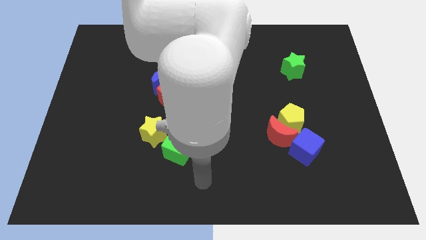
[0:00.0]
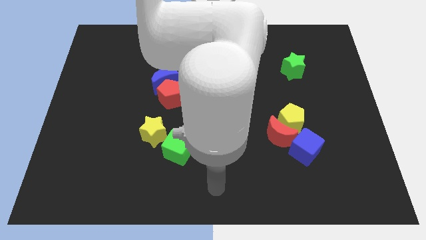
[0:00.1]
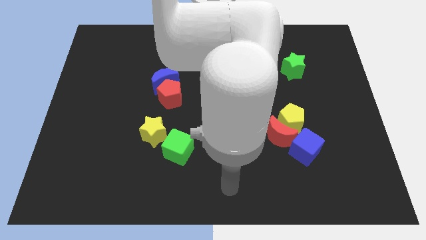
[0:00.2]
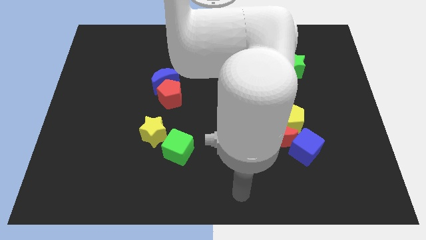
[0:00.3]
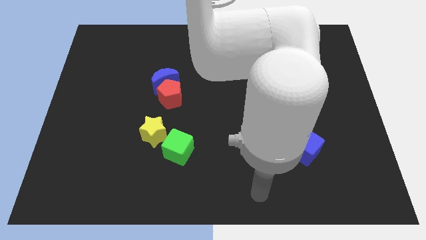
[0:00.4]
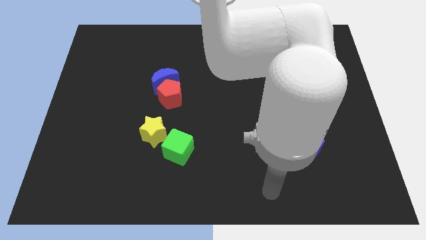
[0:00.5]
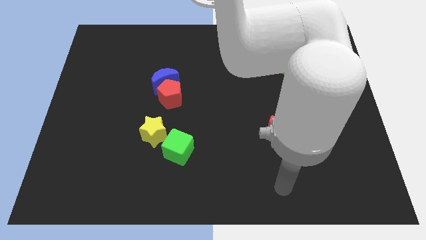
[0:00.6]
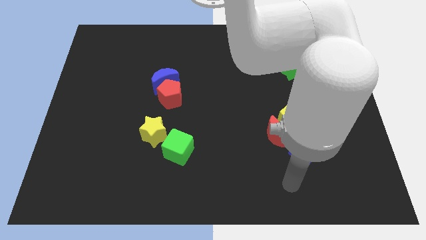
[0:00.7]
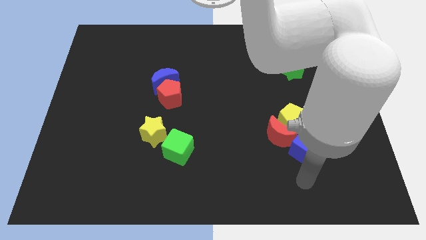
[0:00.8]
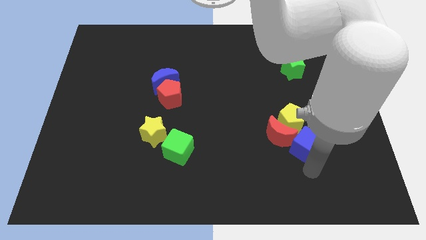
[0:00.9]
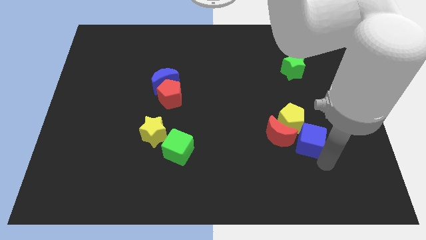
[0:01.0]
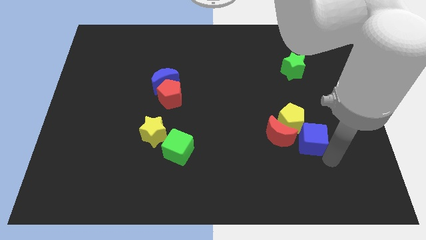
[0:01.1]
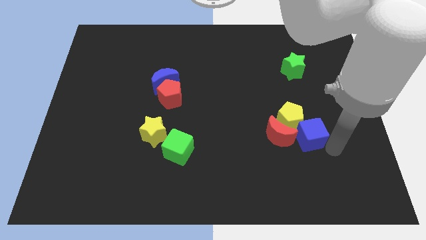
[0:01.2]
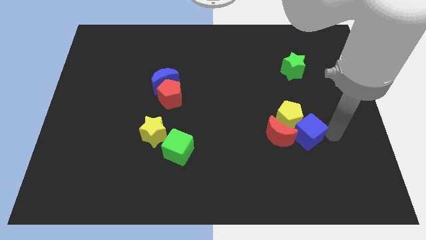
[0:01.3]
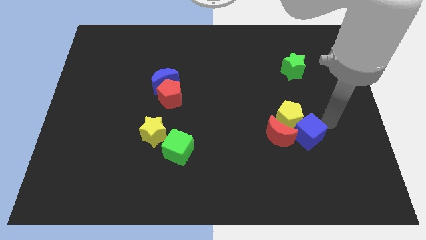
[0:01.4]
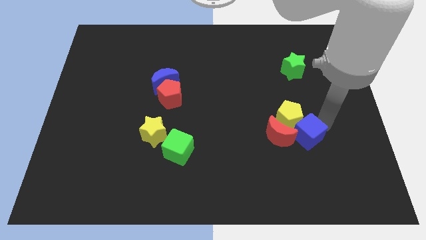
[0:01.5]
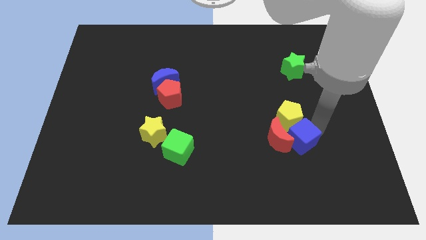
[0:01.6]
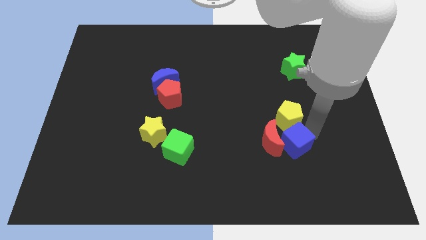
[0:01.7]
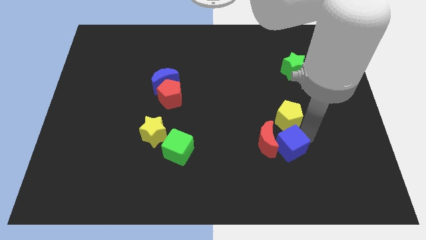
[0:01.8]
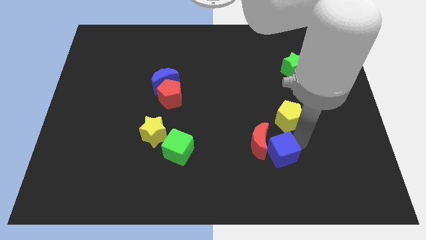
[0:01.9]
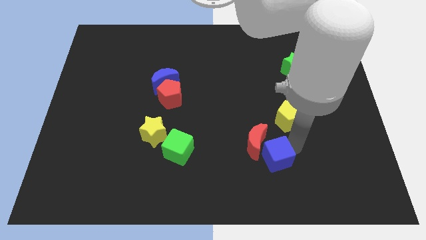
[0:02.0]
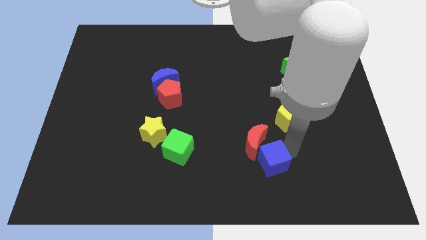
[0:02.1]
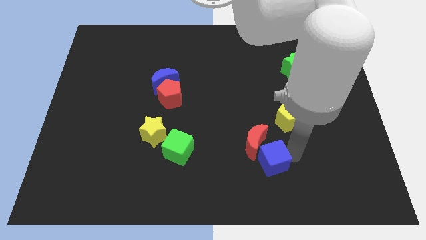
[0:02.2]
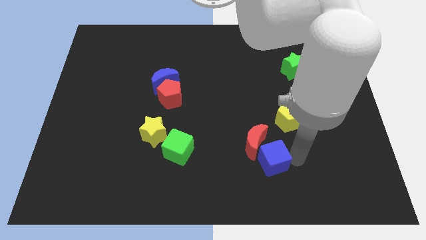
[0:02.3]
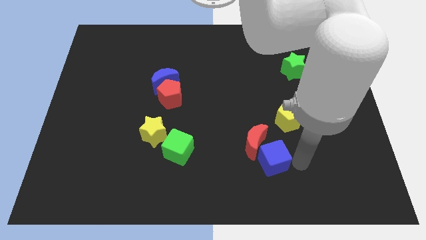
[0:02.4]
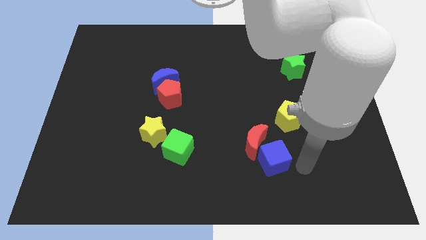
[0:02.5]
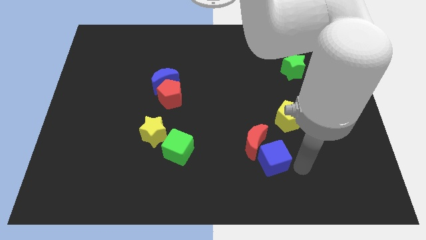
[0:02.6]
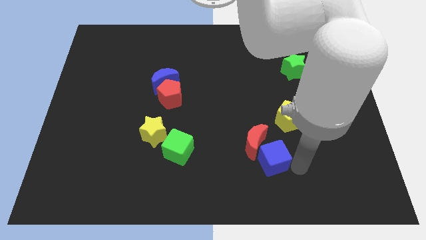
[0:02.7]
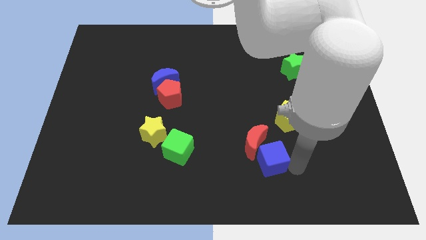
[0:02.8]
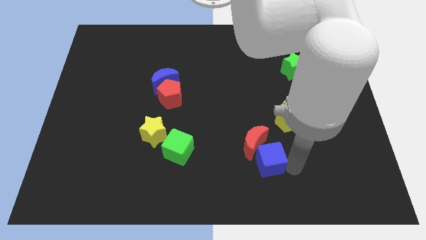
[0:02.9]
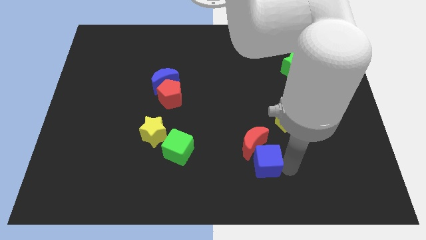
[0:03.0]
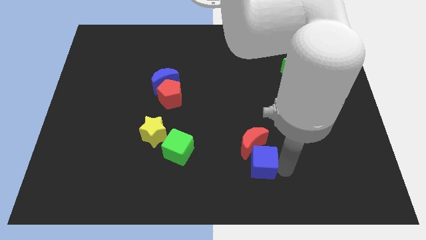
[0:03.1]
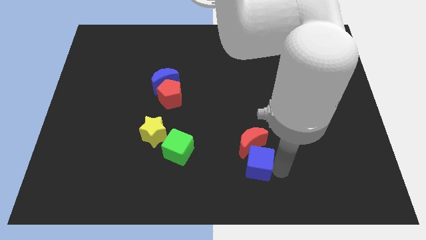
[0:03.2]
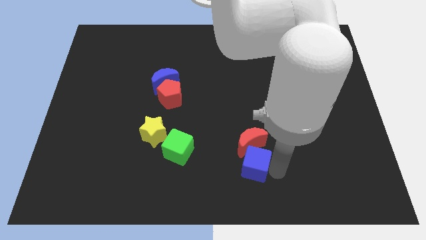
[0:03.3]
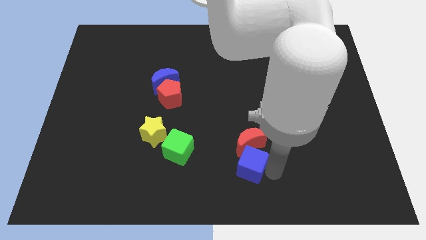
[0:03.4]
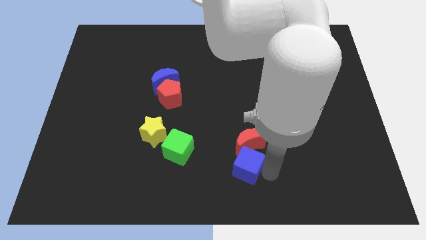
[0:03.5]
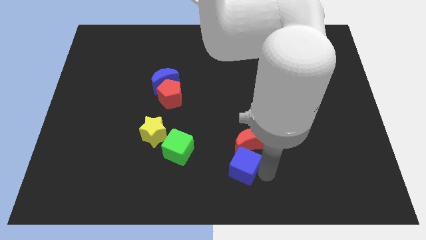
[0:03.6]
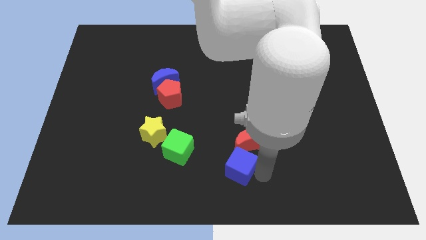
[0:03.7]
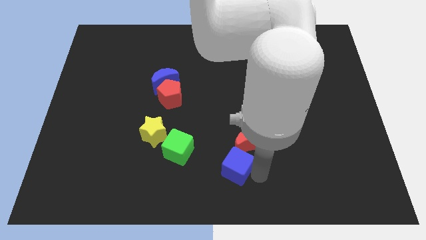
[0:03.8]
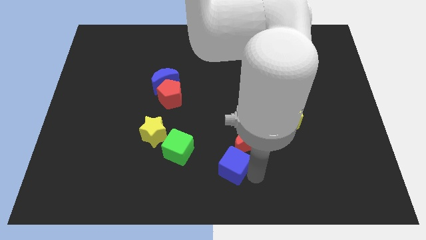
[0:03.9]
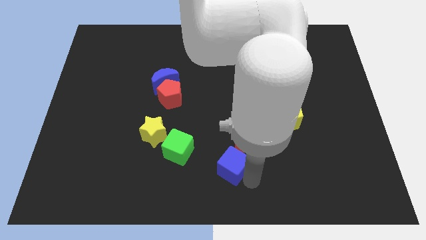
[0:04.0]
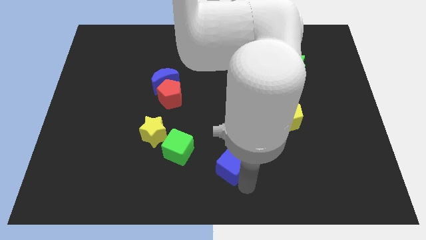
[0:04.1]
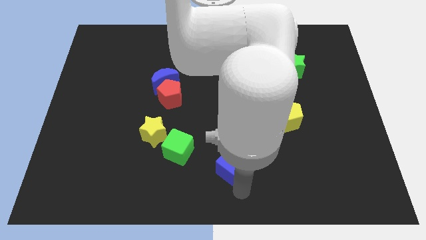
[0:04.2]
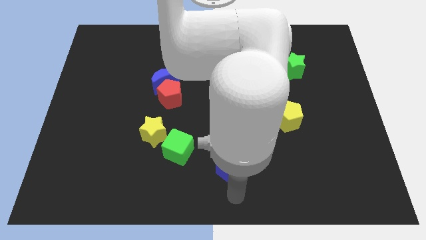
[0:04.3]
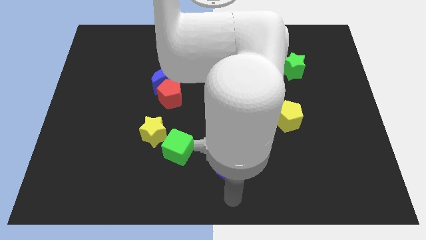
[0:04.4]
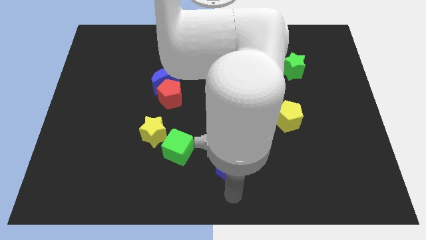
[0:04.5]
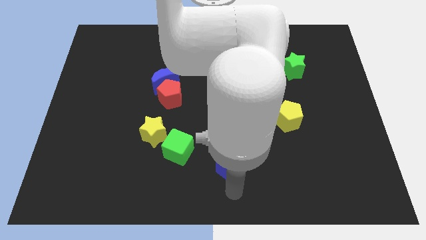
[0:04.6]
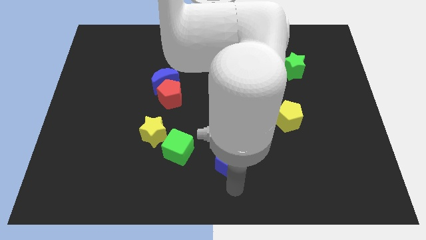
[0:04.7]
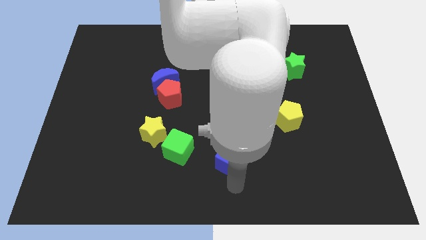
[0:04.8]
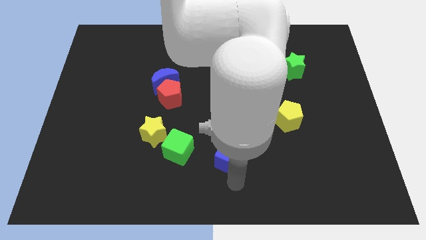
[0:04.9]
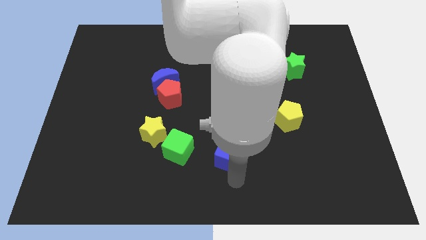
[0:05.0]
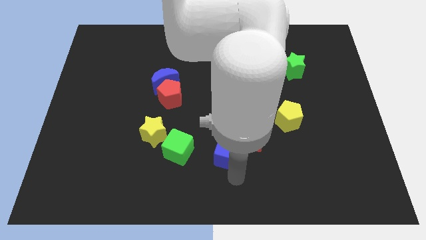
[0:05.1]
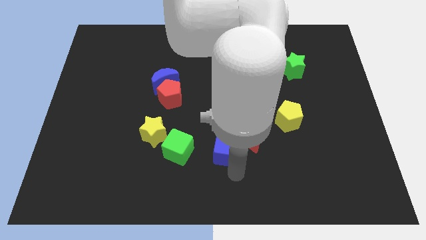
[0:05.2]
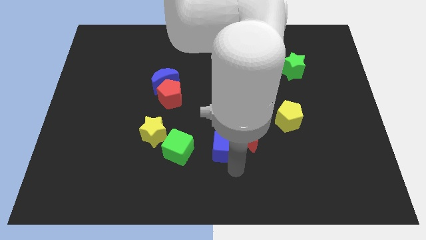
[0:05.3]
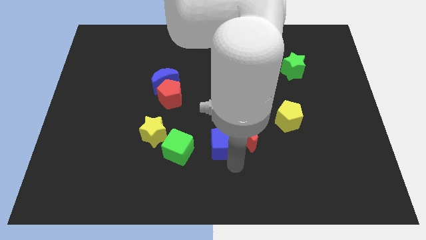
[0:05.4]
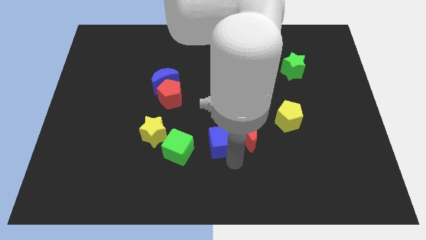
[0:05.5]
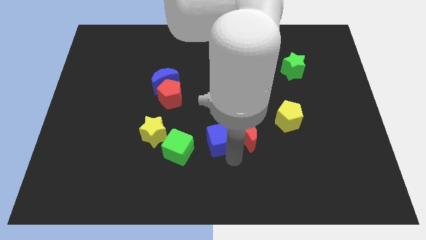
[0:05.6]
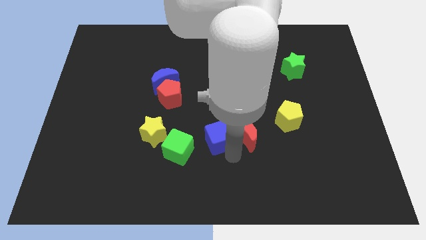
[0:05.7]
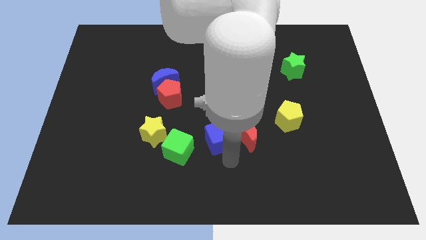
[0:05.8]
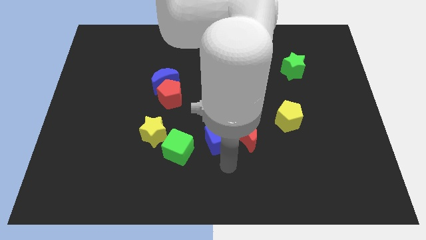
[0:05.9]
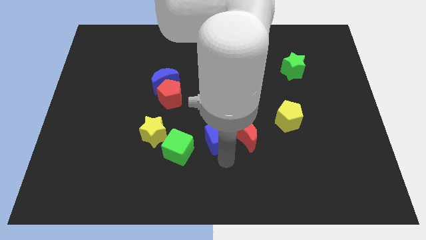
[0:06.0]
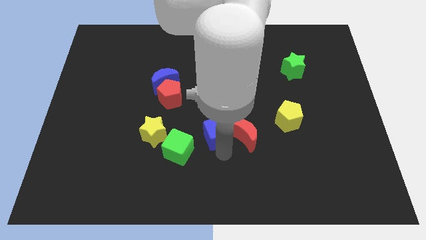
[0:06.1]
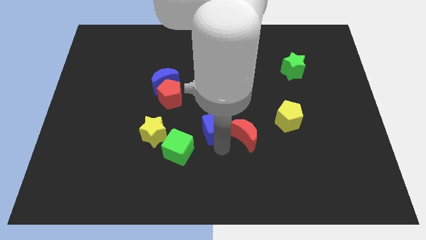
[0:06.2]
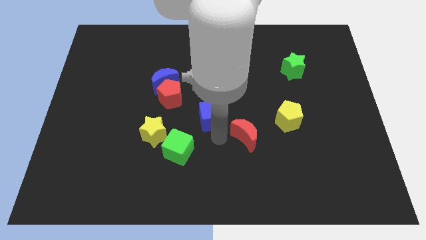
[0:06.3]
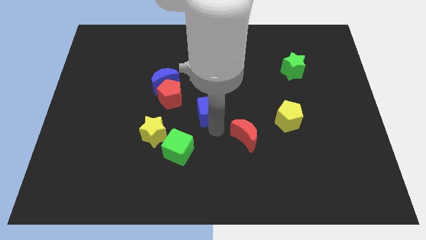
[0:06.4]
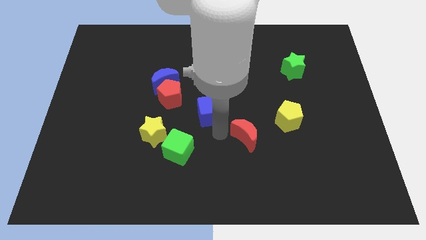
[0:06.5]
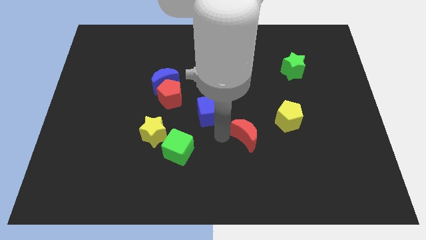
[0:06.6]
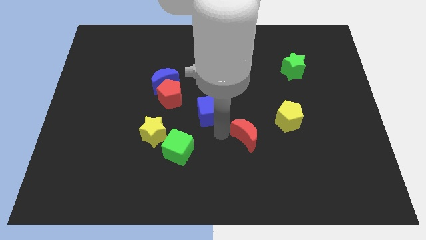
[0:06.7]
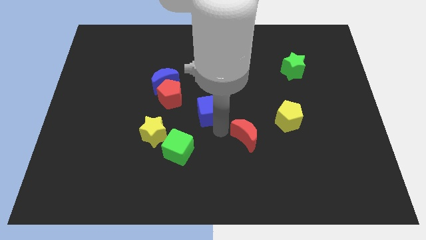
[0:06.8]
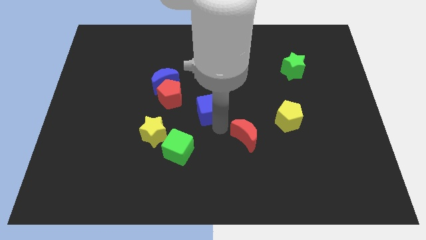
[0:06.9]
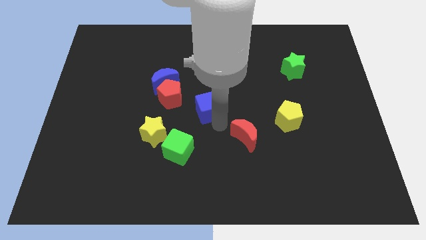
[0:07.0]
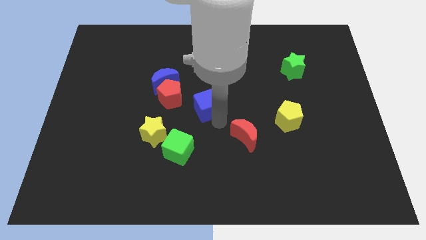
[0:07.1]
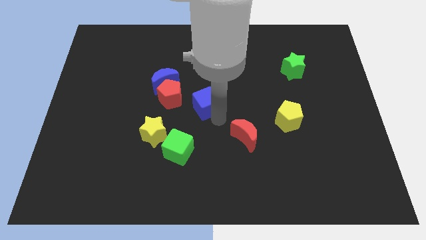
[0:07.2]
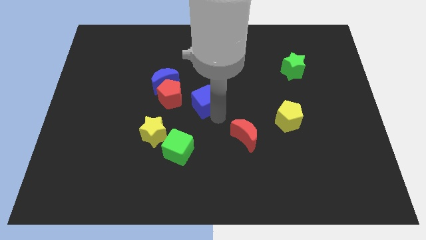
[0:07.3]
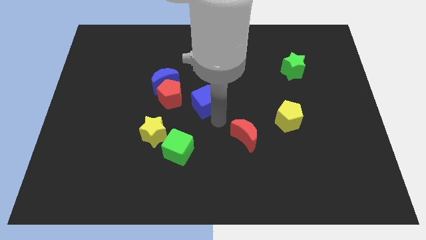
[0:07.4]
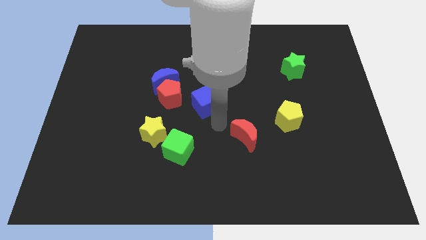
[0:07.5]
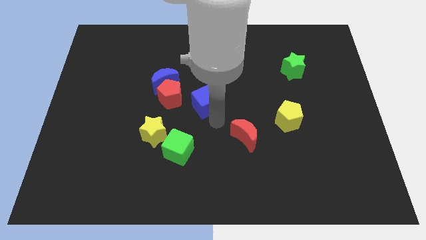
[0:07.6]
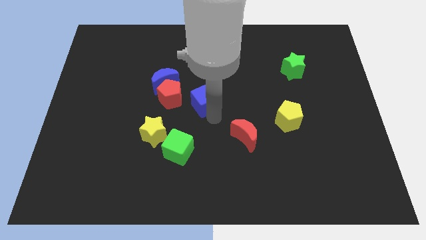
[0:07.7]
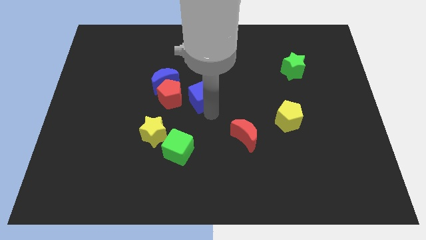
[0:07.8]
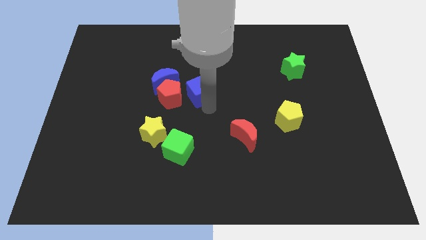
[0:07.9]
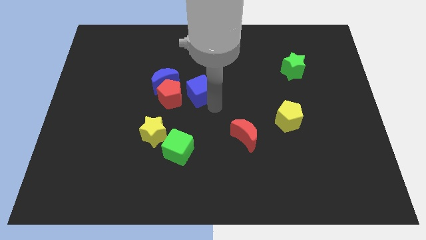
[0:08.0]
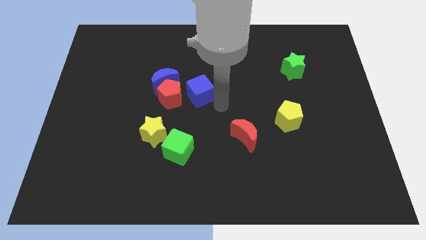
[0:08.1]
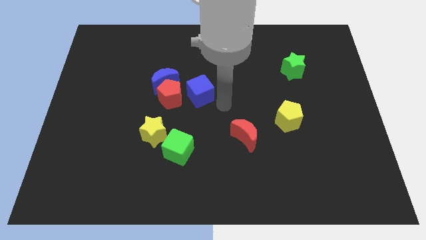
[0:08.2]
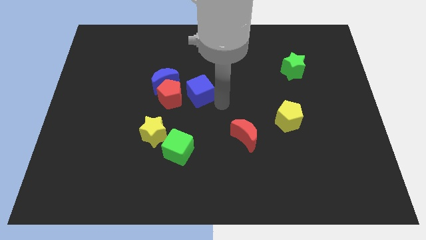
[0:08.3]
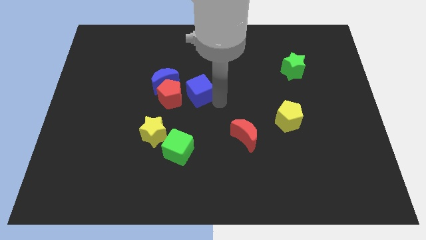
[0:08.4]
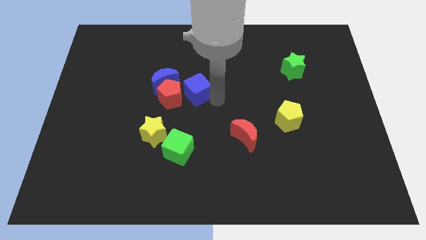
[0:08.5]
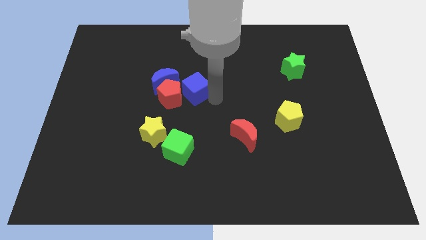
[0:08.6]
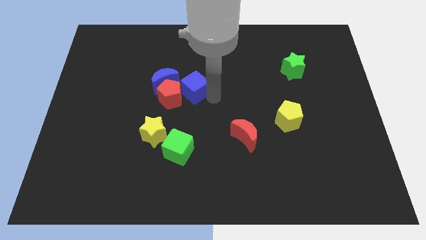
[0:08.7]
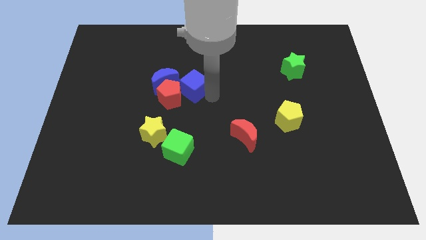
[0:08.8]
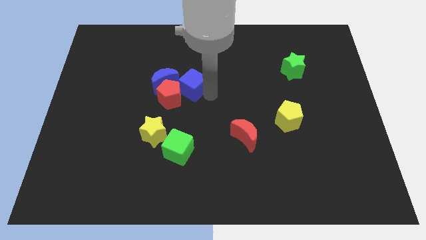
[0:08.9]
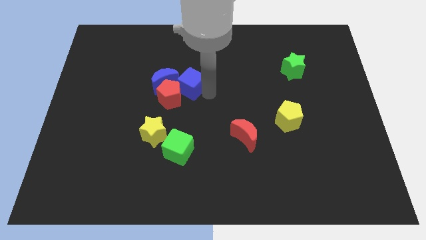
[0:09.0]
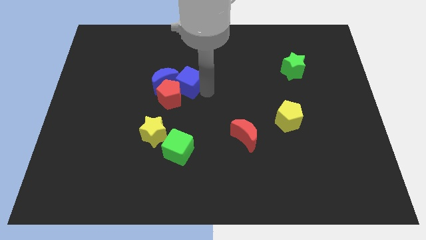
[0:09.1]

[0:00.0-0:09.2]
slide the blue cube next to the blue moon
